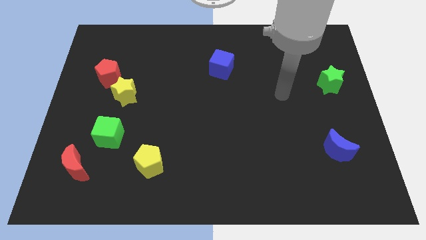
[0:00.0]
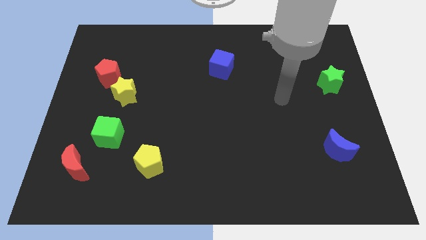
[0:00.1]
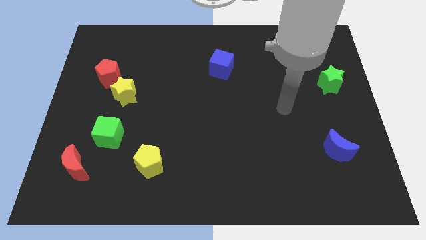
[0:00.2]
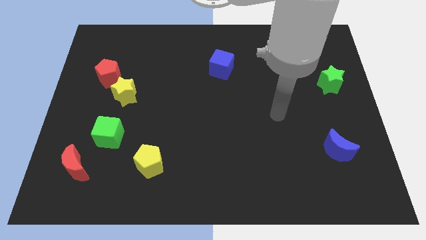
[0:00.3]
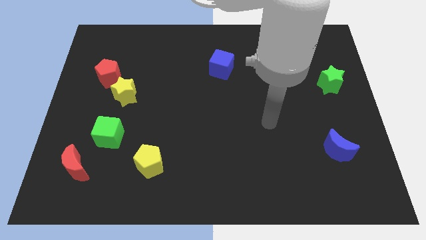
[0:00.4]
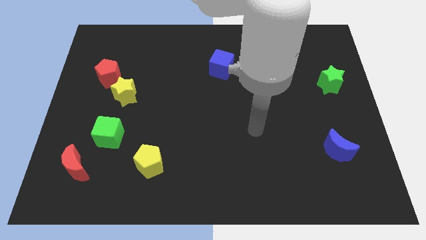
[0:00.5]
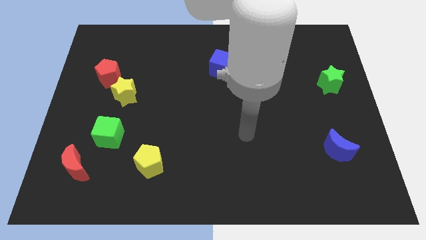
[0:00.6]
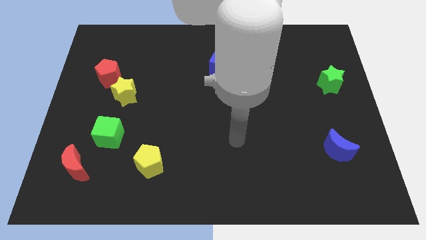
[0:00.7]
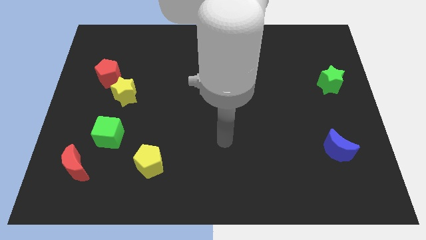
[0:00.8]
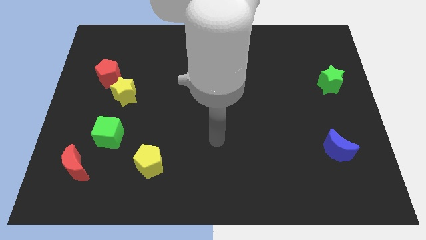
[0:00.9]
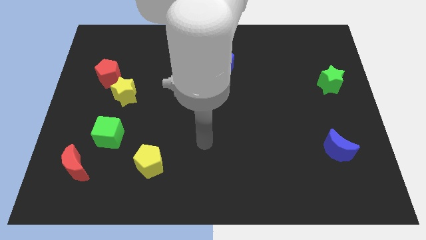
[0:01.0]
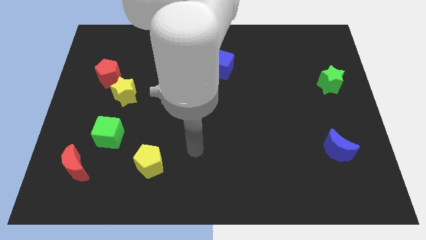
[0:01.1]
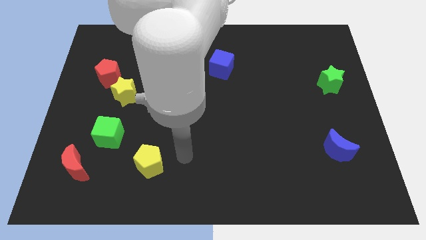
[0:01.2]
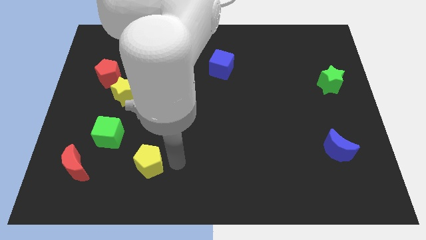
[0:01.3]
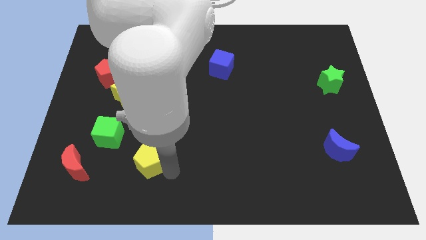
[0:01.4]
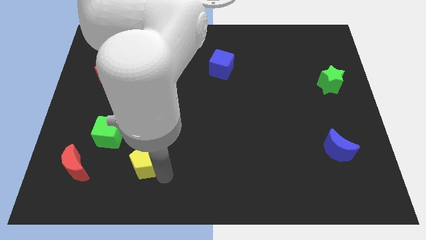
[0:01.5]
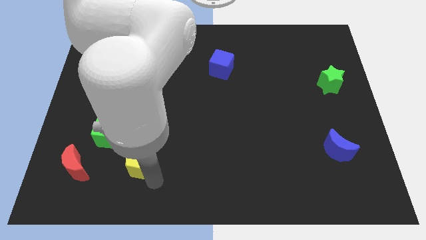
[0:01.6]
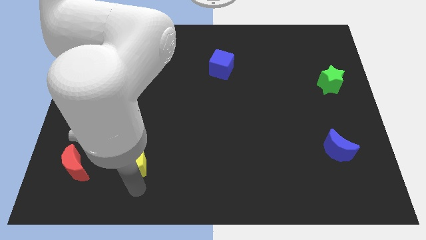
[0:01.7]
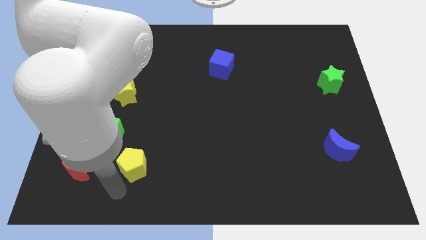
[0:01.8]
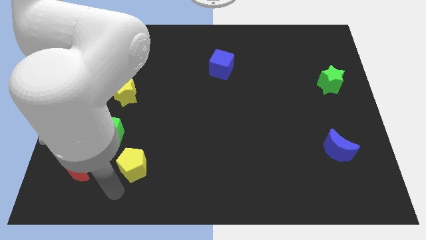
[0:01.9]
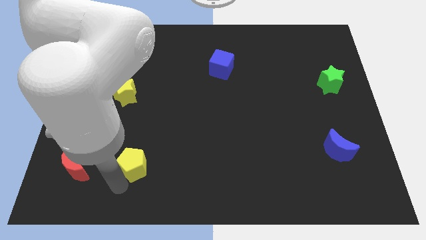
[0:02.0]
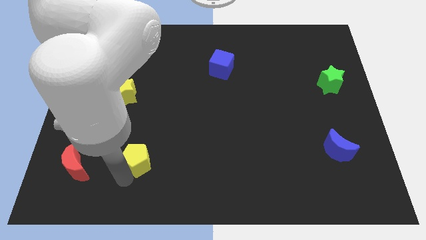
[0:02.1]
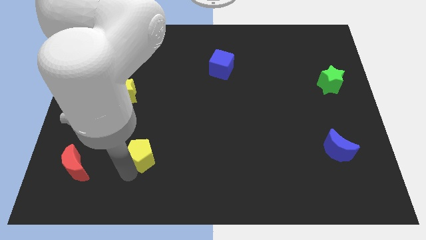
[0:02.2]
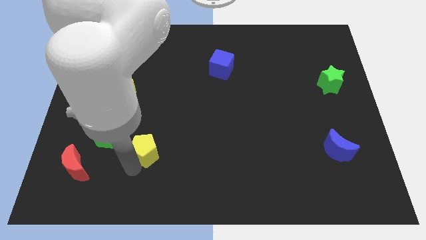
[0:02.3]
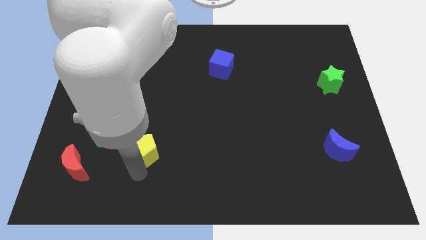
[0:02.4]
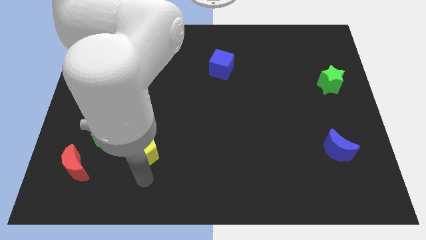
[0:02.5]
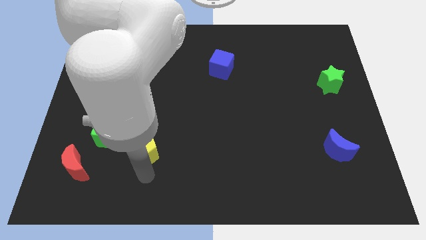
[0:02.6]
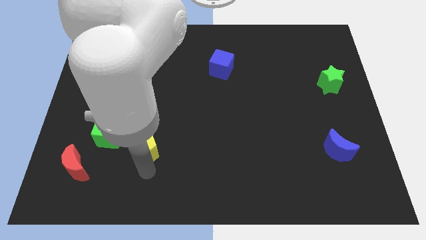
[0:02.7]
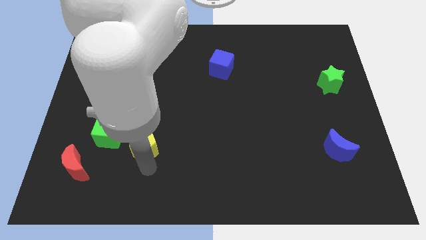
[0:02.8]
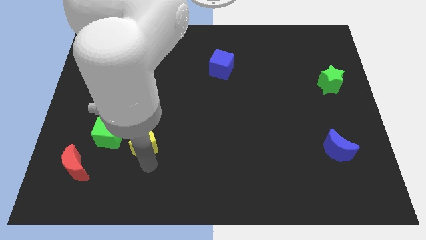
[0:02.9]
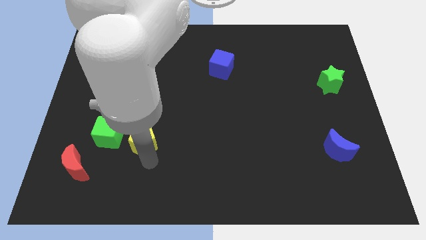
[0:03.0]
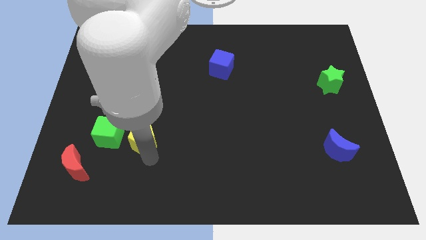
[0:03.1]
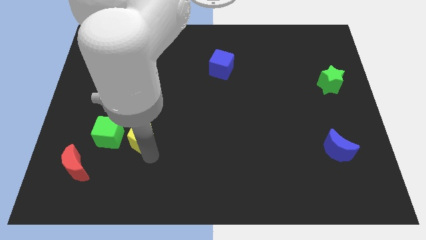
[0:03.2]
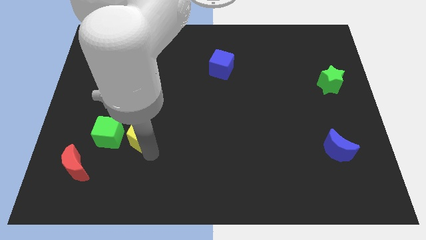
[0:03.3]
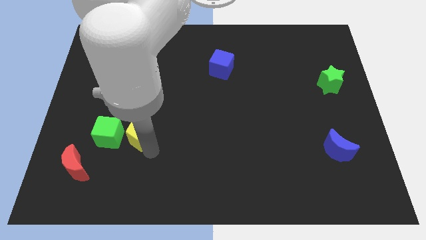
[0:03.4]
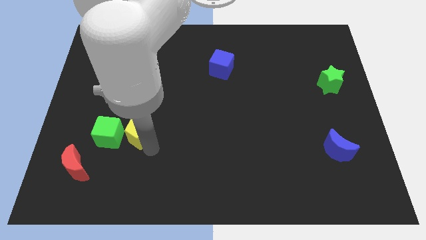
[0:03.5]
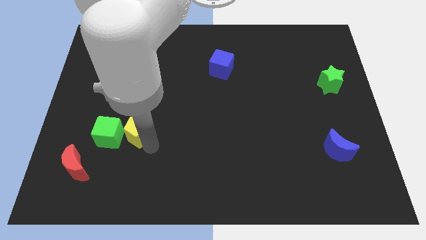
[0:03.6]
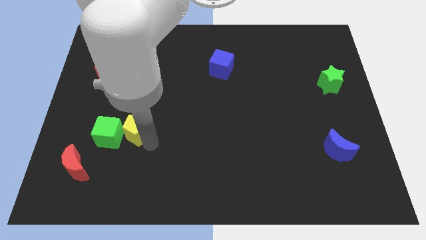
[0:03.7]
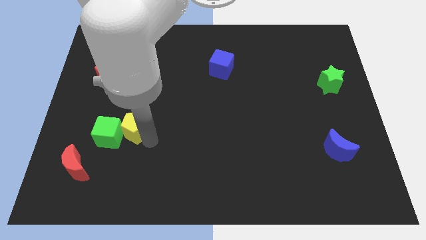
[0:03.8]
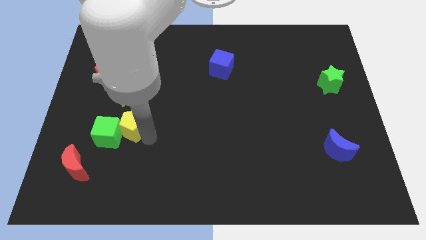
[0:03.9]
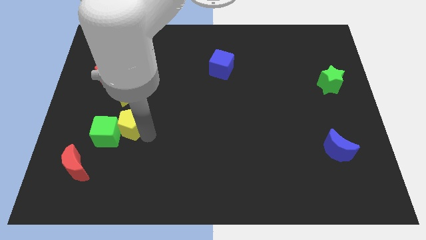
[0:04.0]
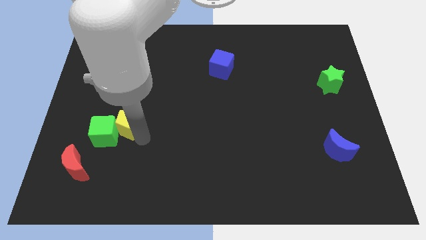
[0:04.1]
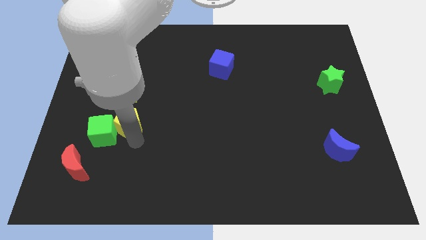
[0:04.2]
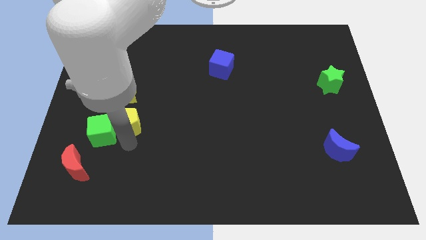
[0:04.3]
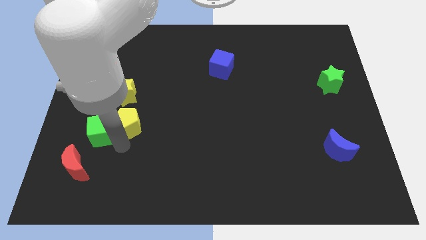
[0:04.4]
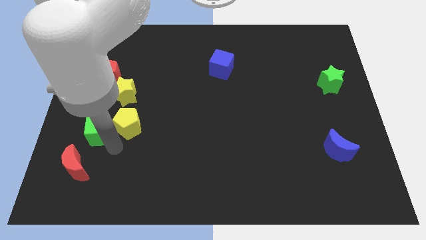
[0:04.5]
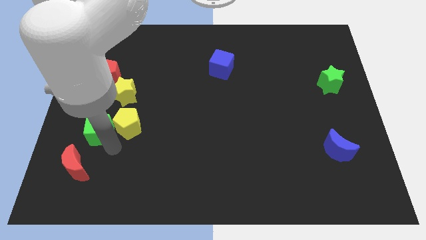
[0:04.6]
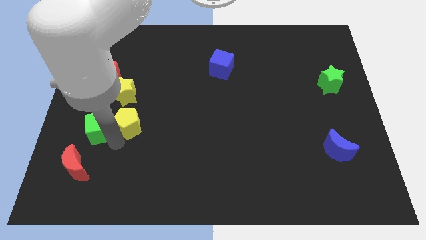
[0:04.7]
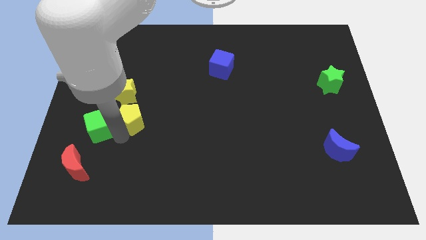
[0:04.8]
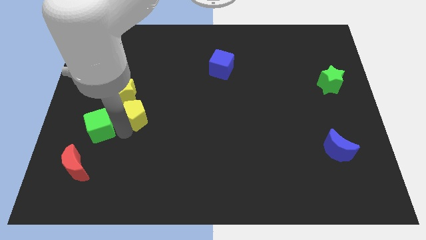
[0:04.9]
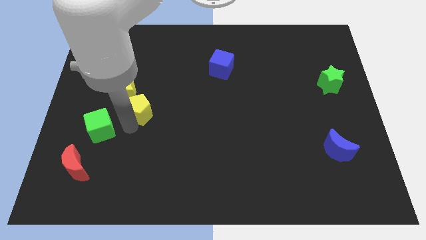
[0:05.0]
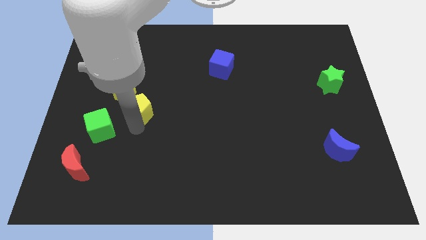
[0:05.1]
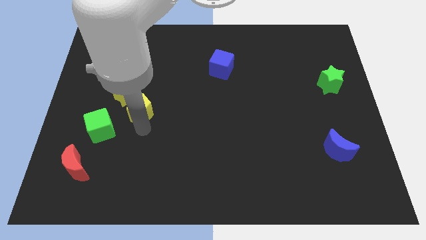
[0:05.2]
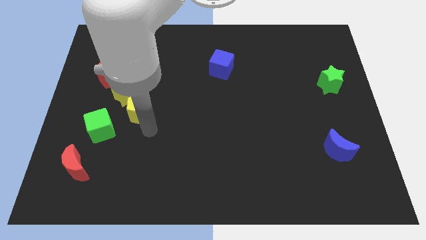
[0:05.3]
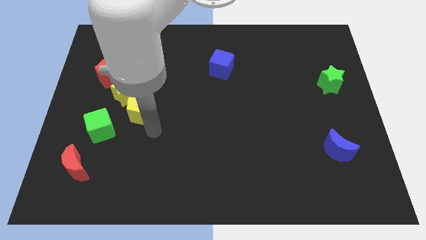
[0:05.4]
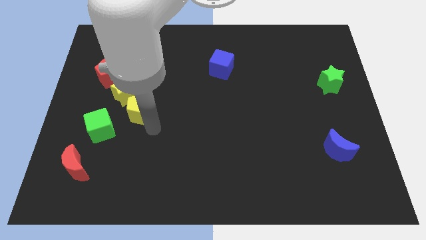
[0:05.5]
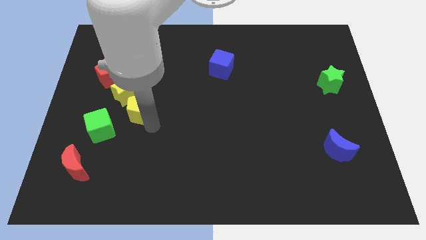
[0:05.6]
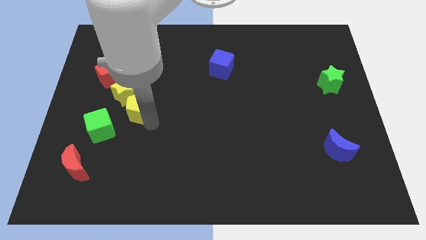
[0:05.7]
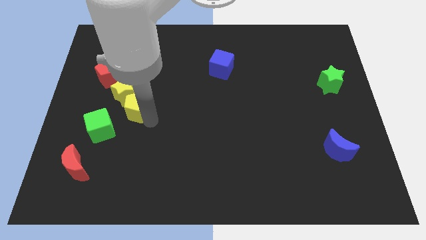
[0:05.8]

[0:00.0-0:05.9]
slide the yellow pentagon close to the yellow star

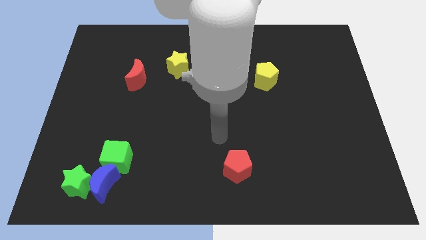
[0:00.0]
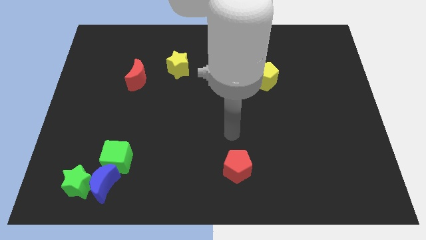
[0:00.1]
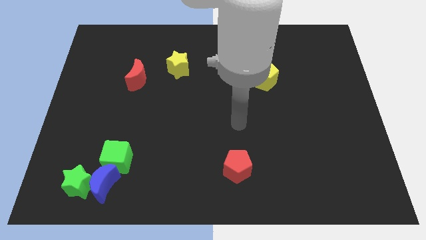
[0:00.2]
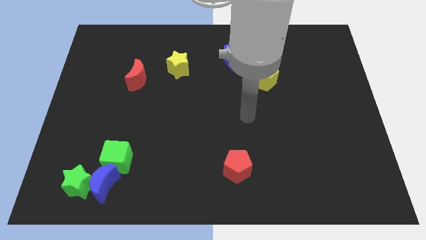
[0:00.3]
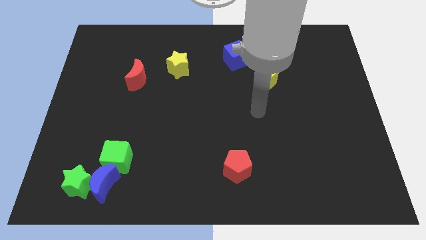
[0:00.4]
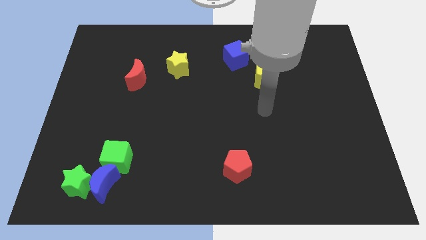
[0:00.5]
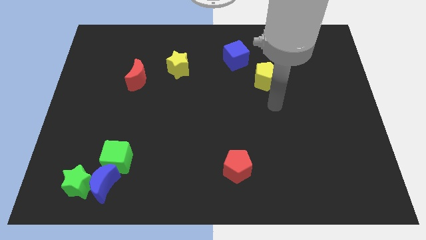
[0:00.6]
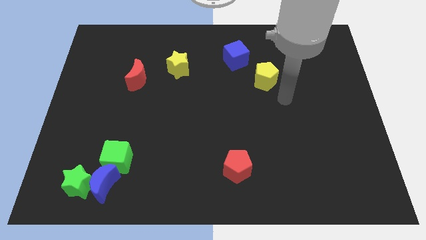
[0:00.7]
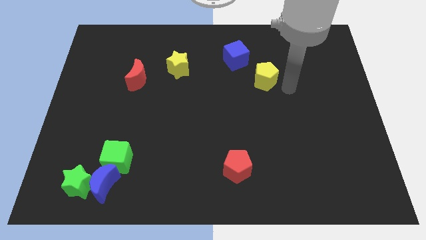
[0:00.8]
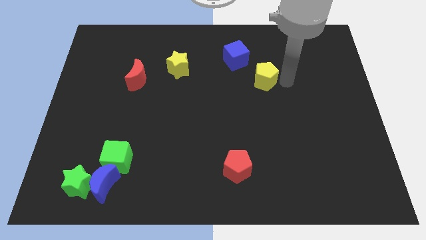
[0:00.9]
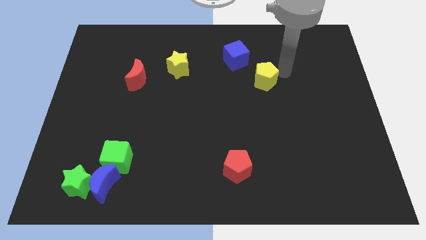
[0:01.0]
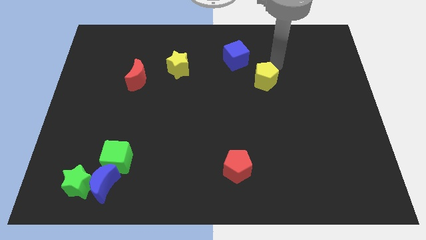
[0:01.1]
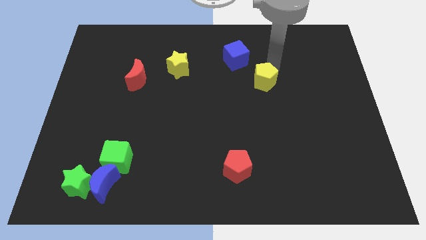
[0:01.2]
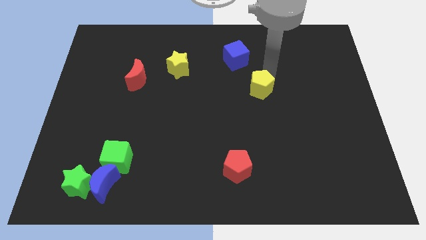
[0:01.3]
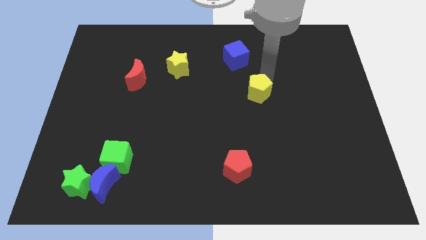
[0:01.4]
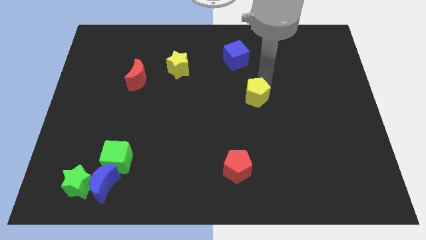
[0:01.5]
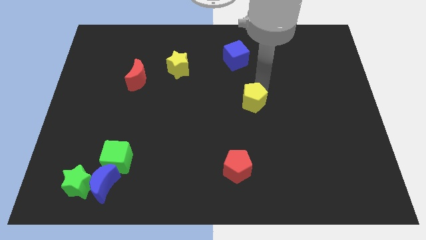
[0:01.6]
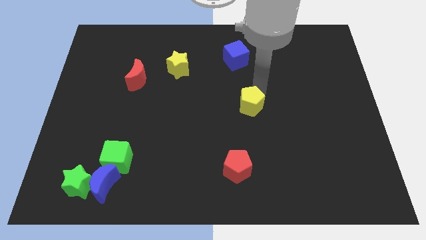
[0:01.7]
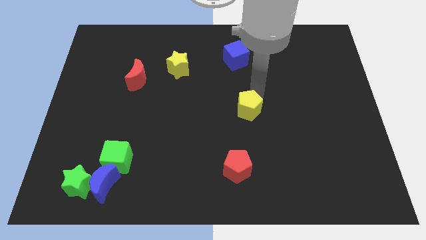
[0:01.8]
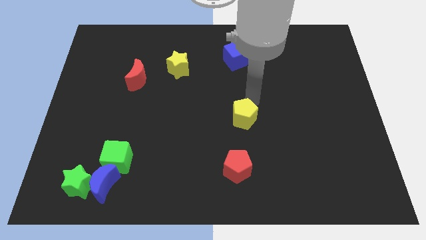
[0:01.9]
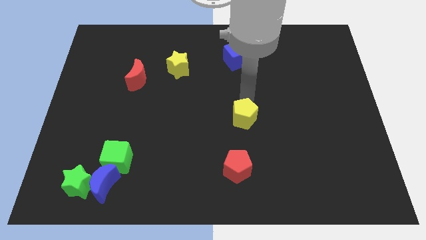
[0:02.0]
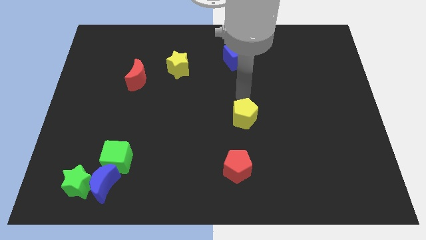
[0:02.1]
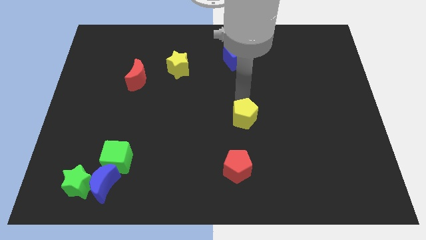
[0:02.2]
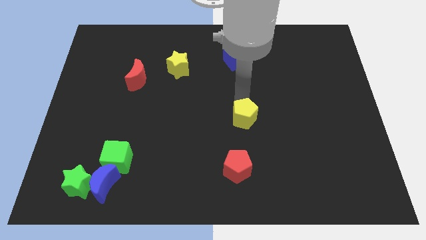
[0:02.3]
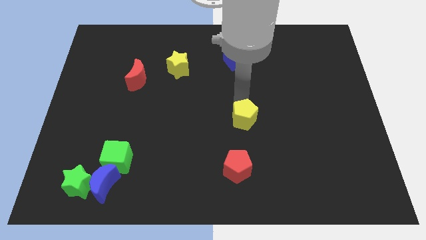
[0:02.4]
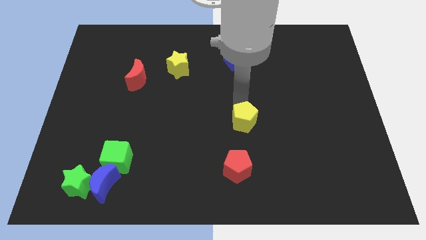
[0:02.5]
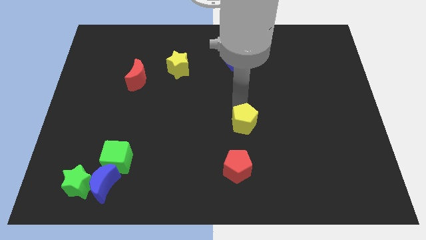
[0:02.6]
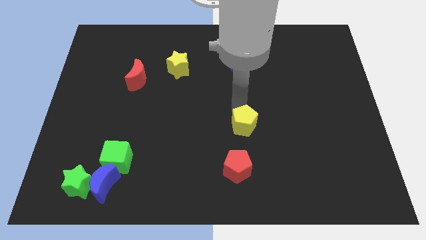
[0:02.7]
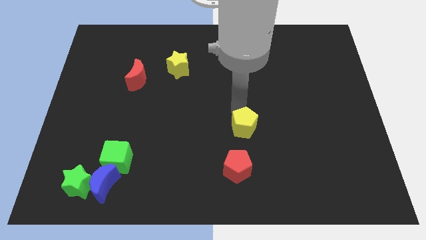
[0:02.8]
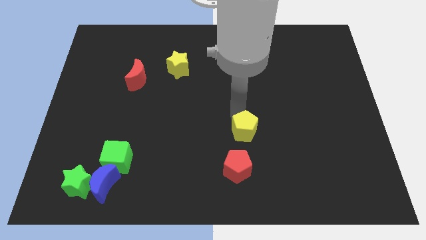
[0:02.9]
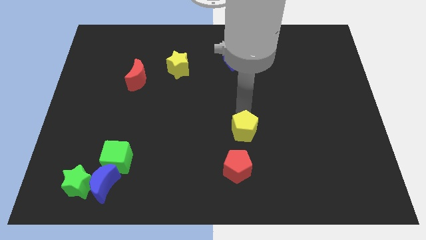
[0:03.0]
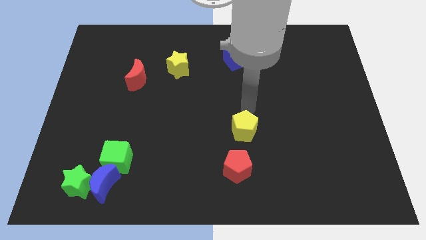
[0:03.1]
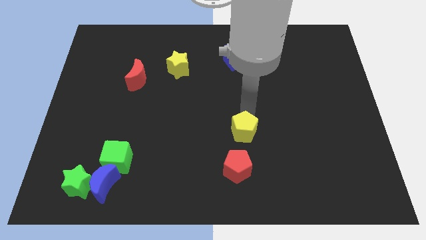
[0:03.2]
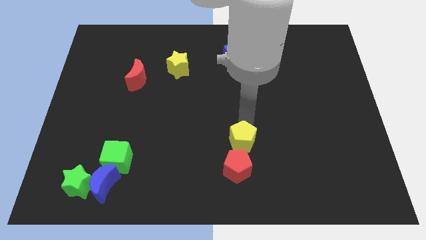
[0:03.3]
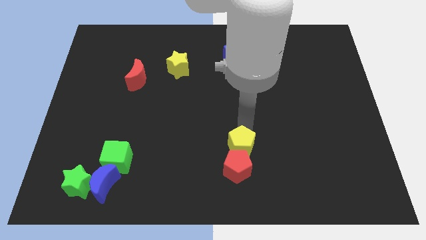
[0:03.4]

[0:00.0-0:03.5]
push the yellow pentagon close to the red pentagon
